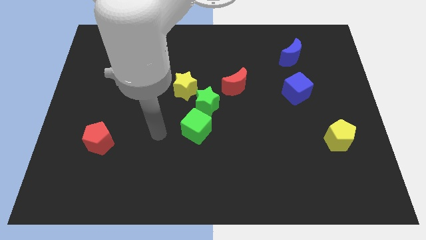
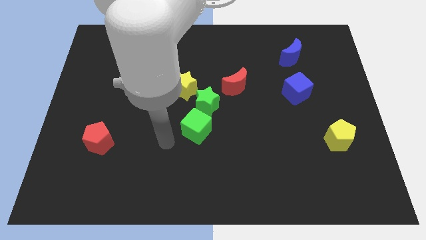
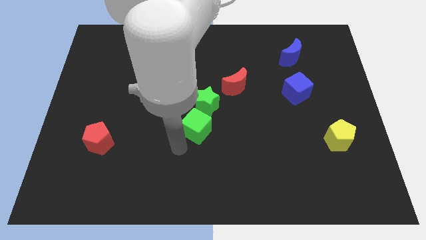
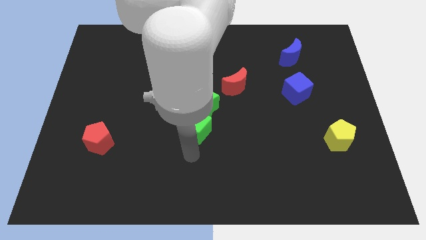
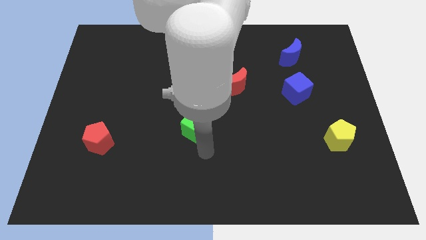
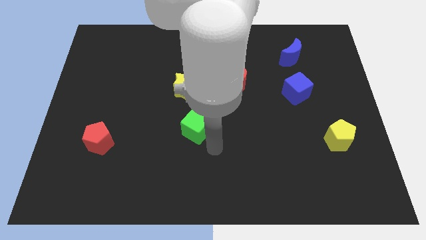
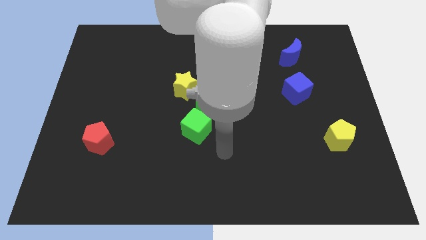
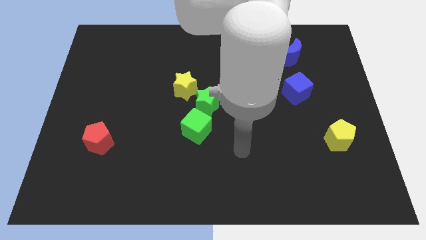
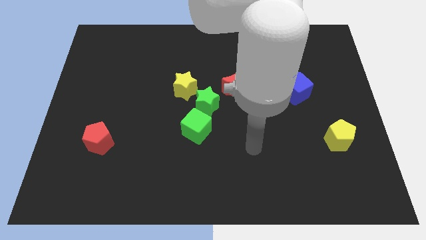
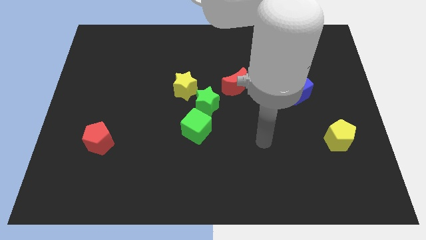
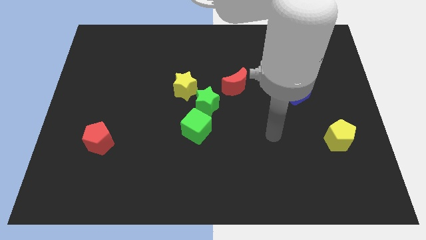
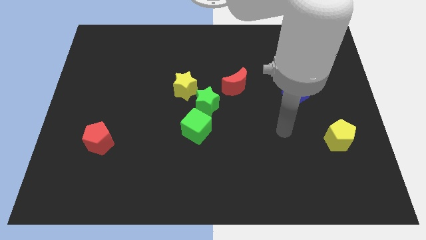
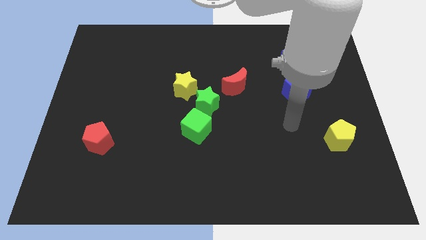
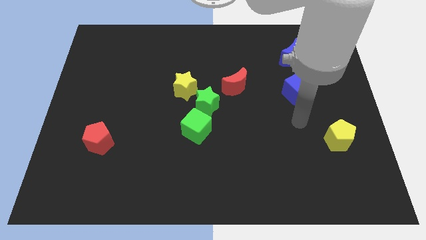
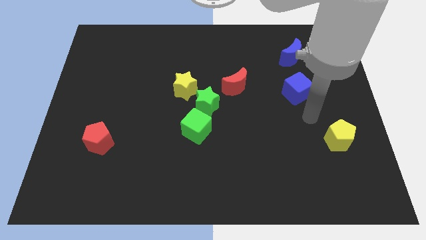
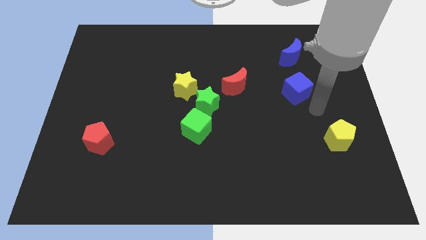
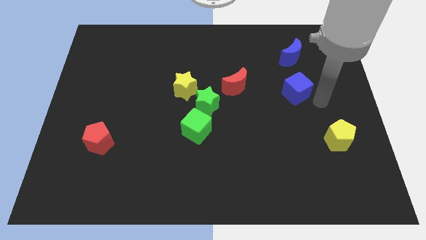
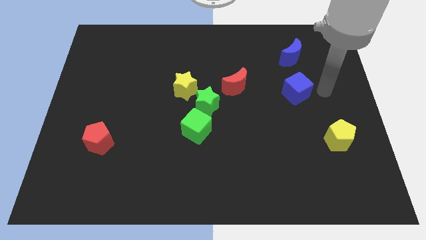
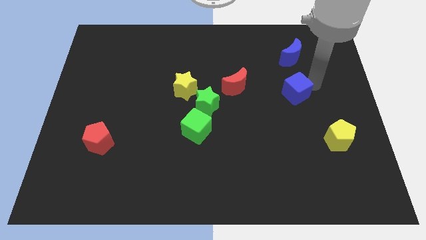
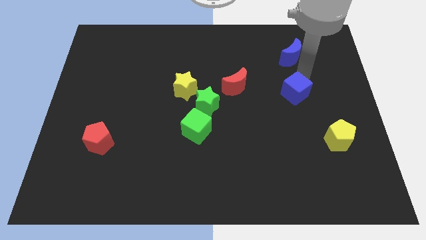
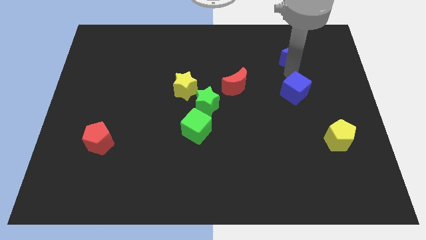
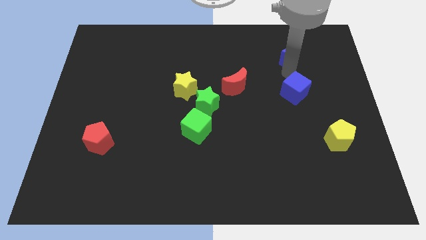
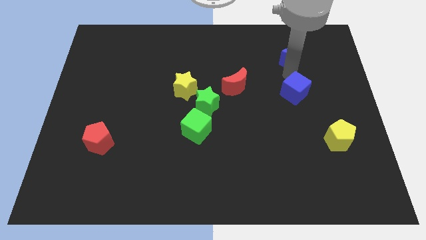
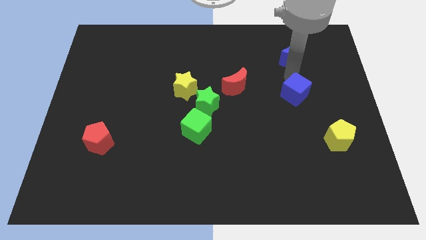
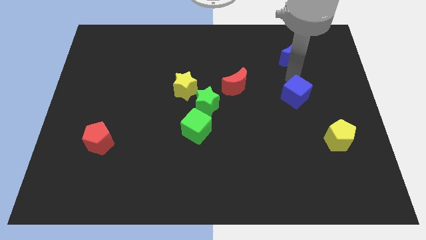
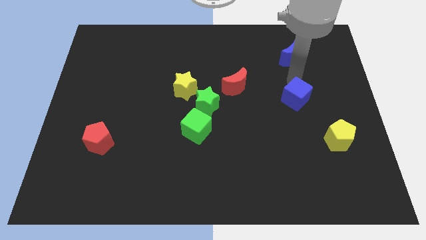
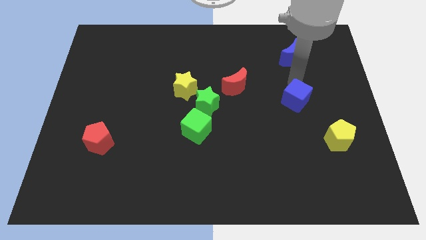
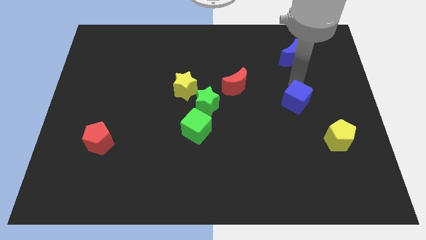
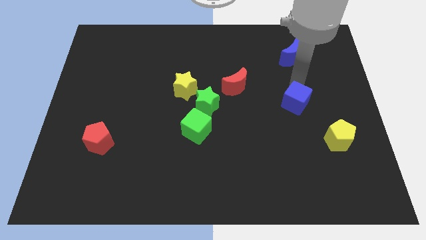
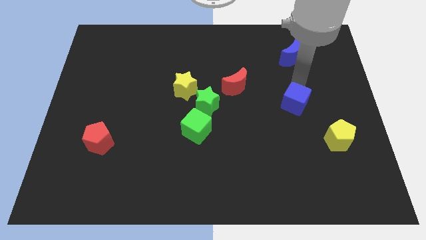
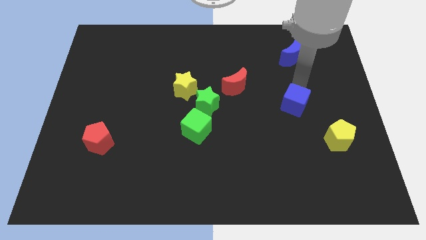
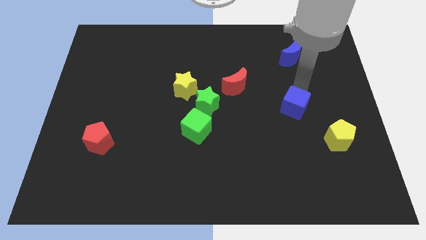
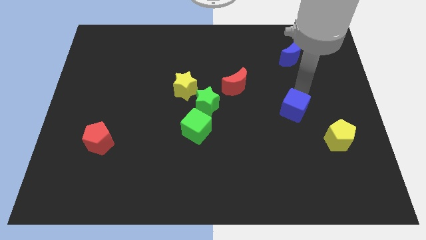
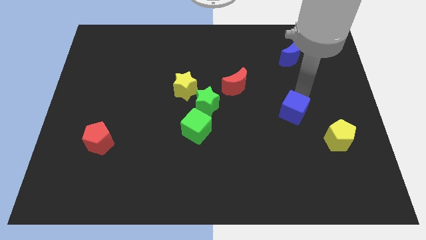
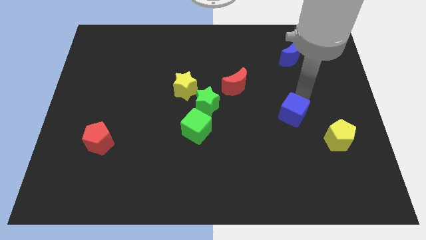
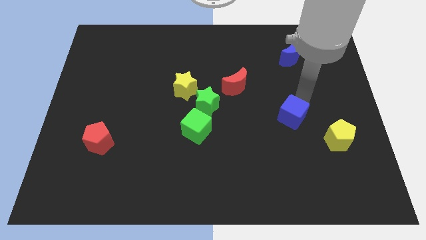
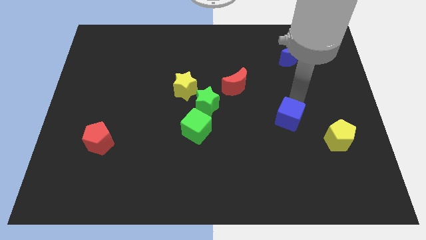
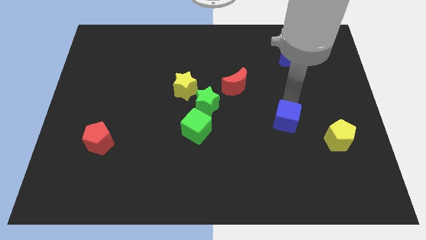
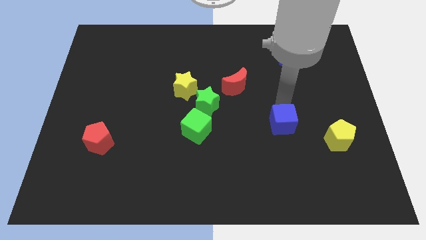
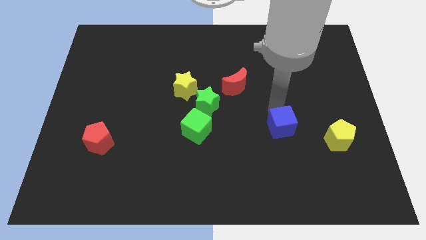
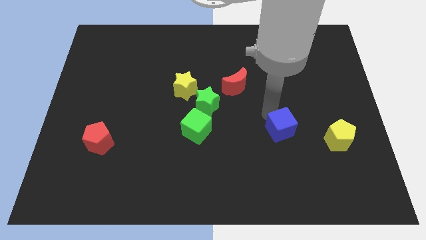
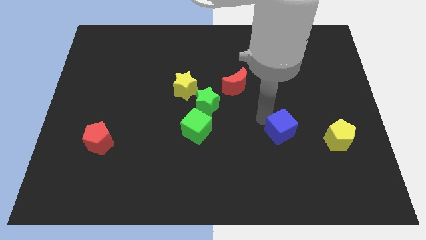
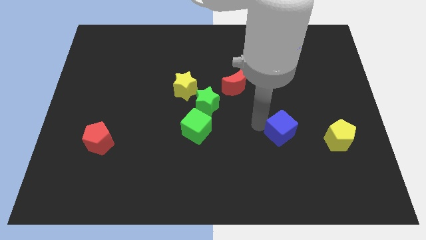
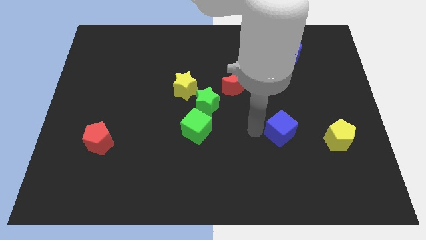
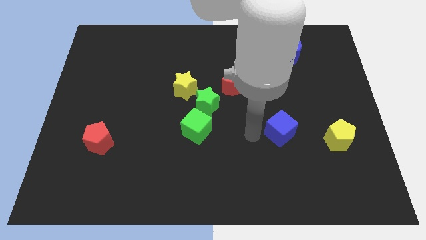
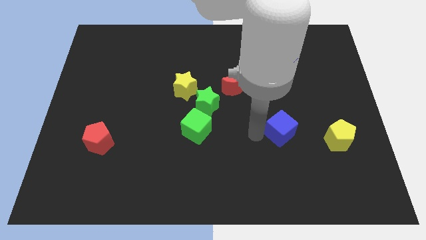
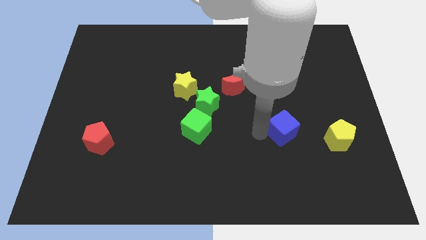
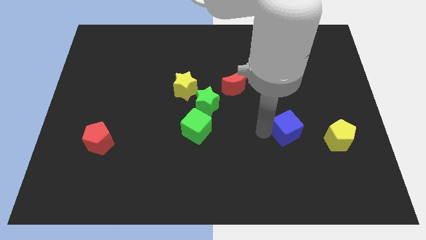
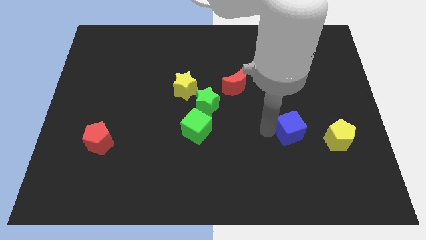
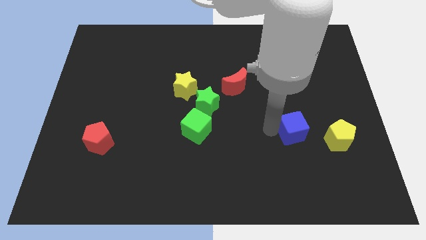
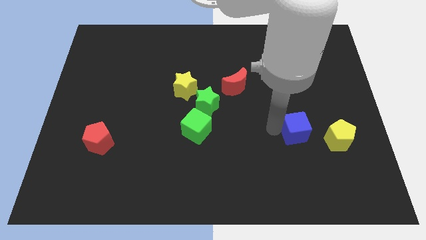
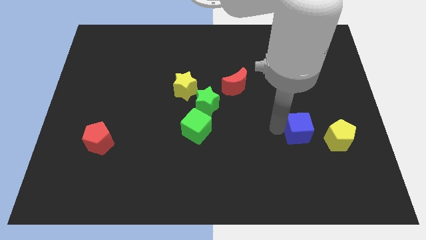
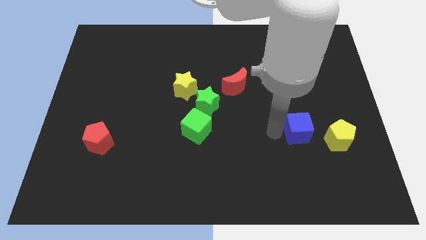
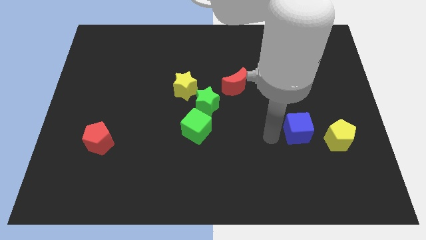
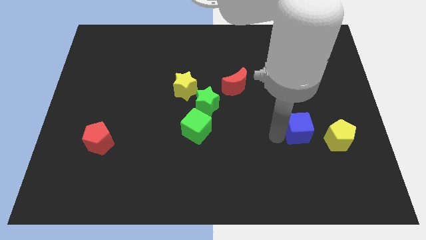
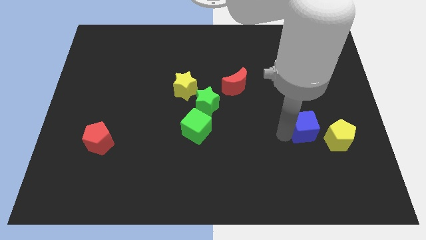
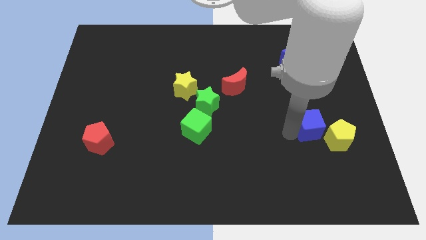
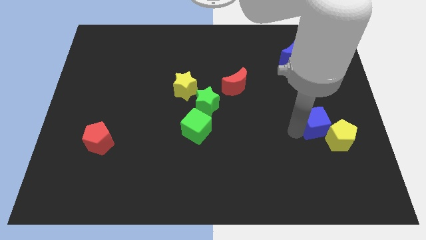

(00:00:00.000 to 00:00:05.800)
move the blue cube to the yellow pentagon

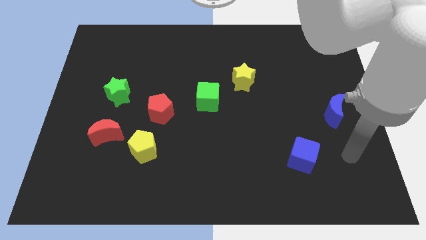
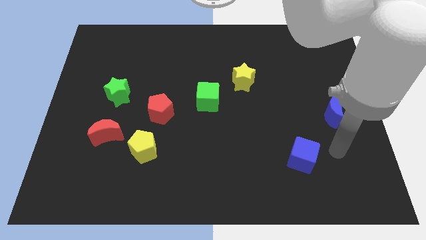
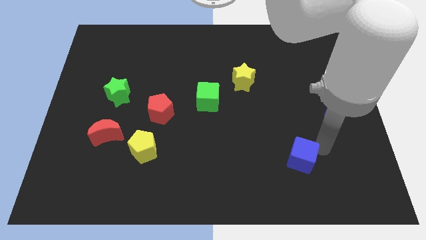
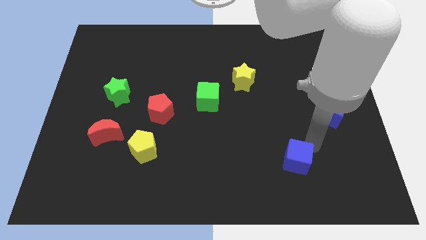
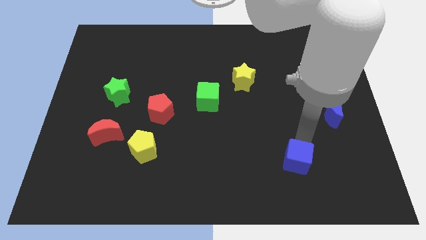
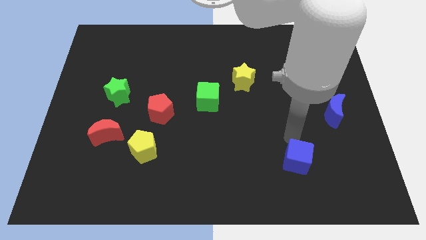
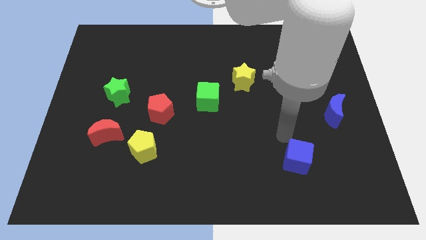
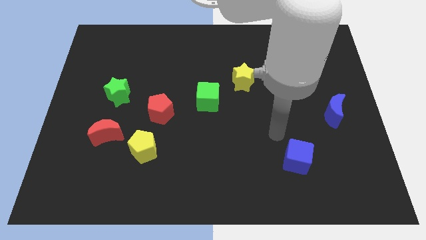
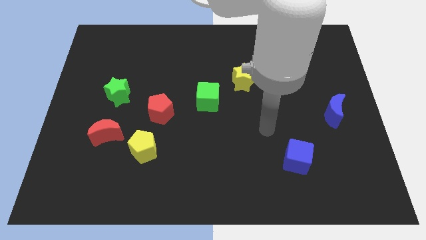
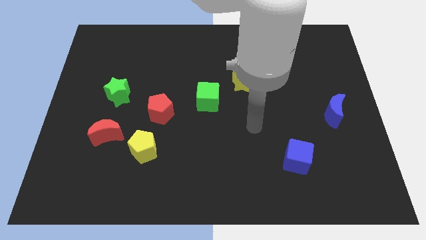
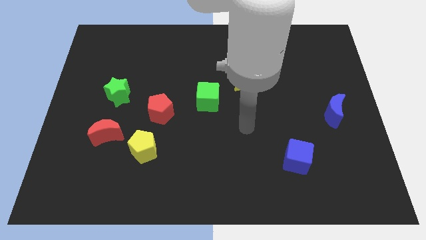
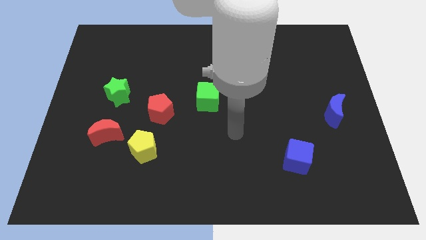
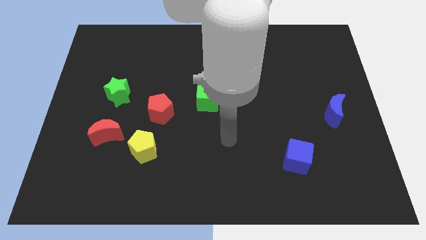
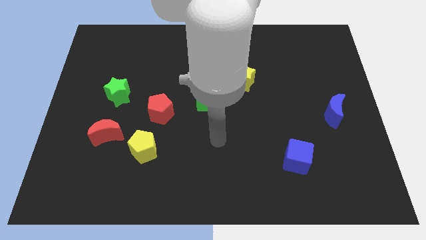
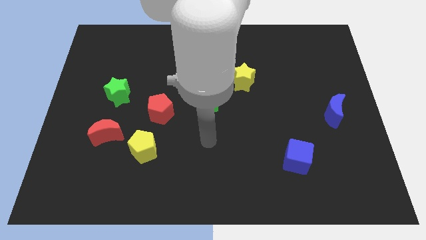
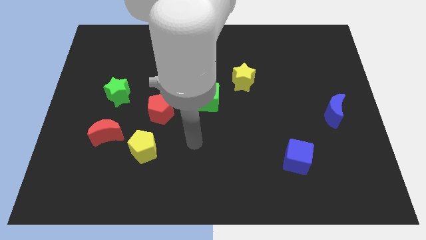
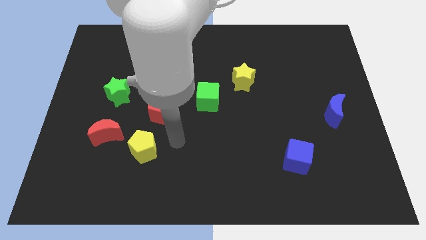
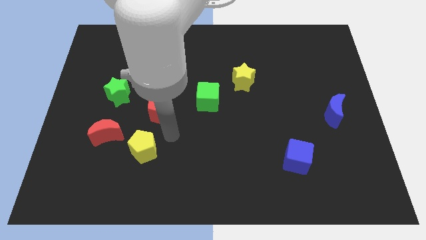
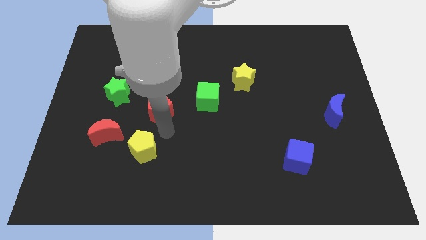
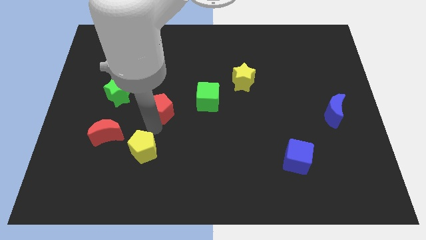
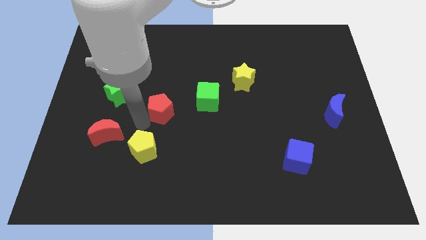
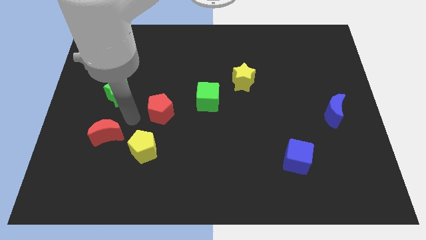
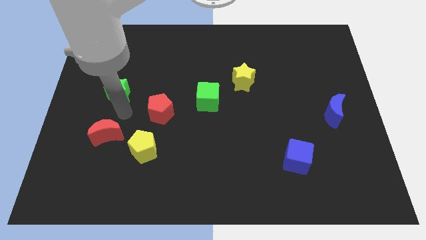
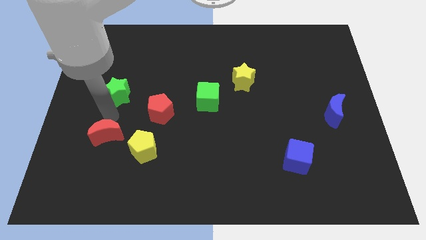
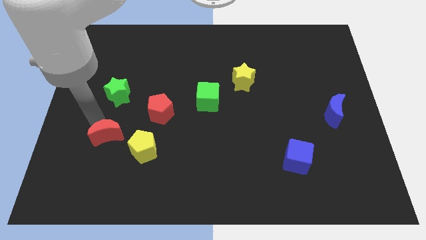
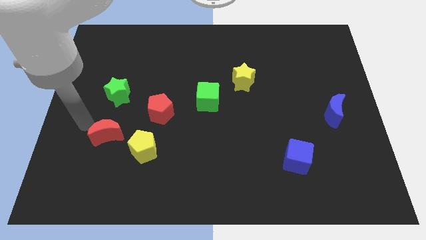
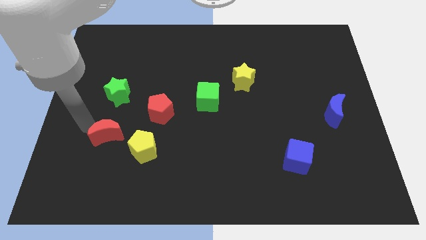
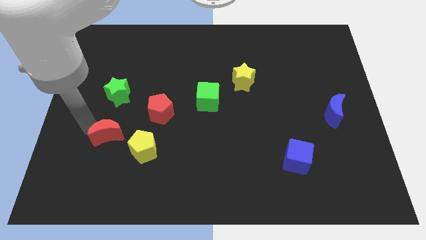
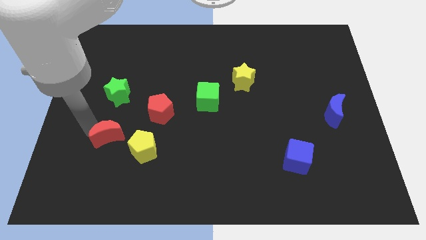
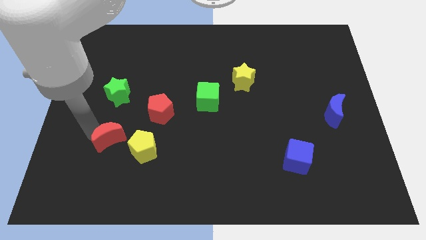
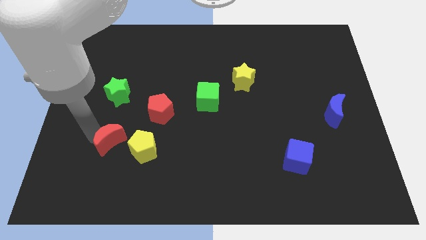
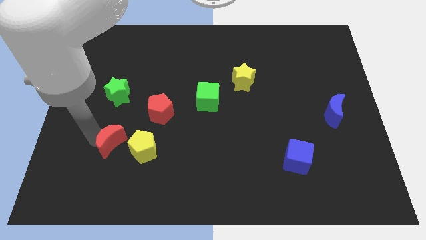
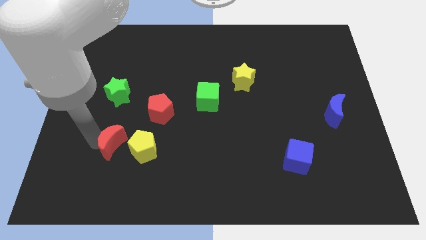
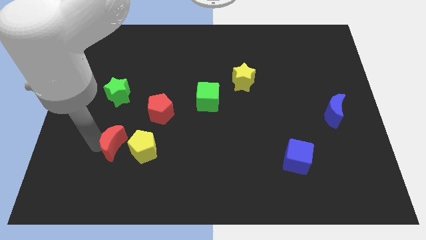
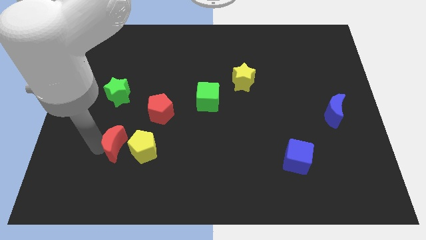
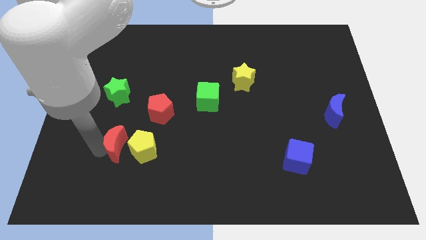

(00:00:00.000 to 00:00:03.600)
push the red moon to the yellow pentagon
